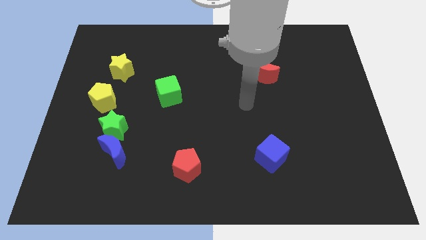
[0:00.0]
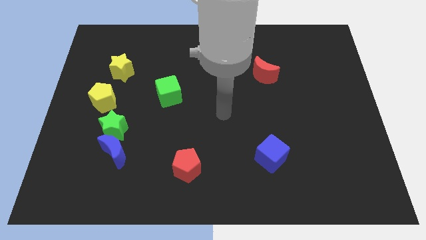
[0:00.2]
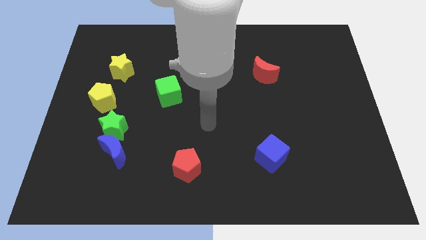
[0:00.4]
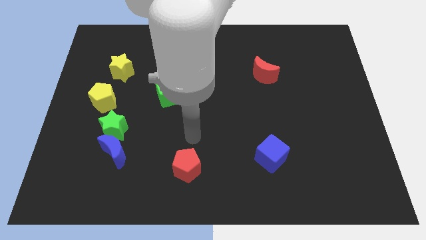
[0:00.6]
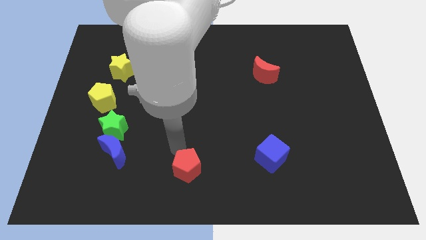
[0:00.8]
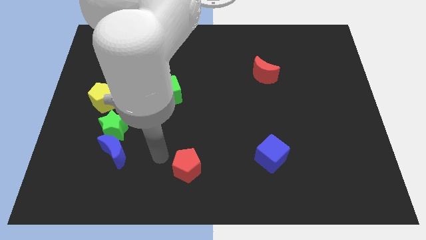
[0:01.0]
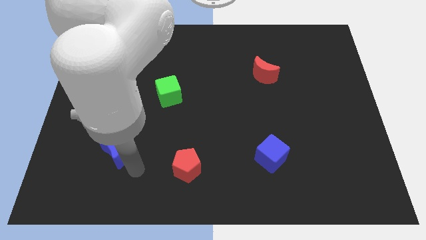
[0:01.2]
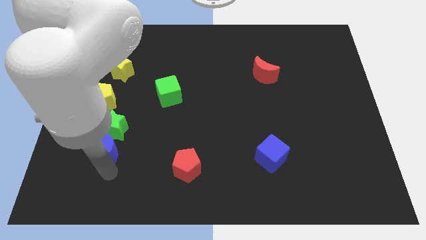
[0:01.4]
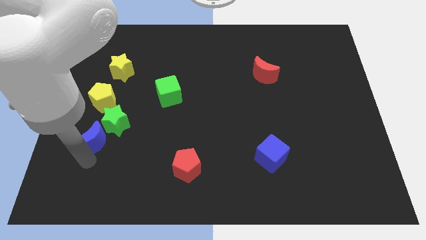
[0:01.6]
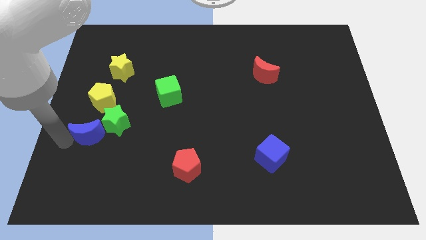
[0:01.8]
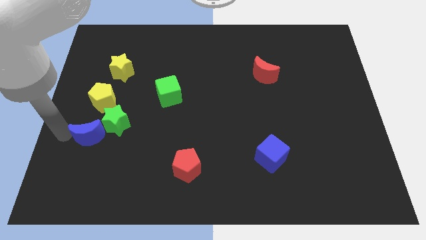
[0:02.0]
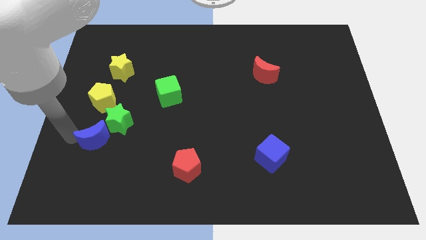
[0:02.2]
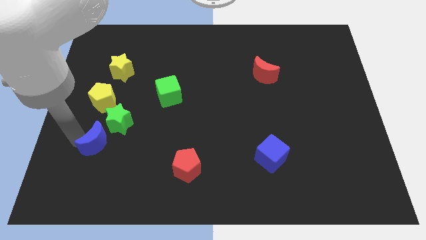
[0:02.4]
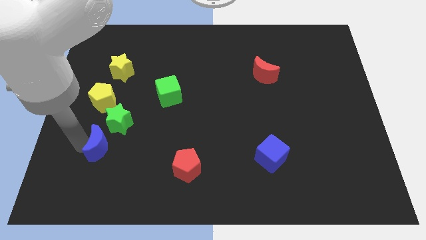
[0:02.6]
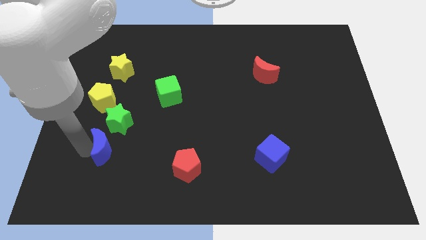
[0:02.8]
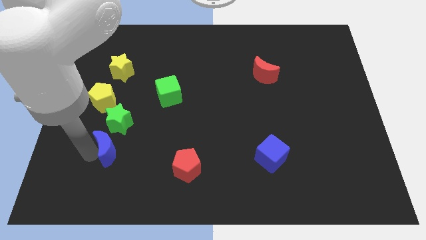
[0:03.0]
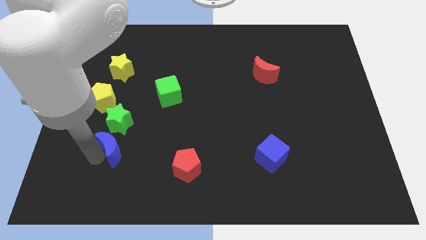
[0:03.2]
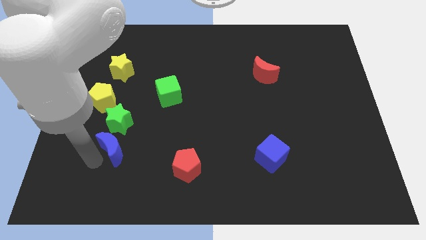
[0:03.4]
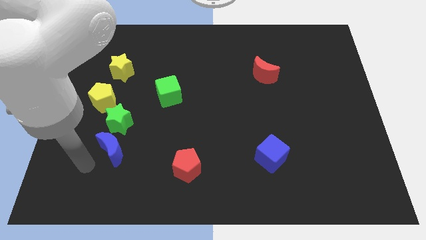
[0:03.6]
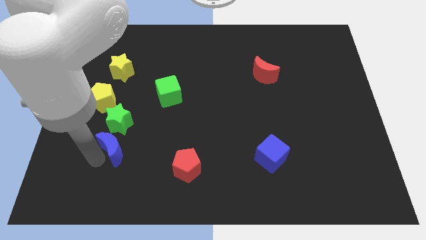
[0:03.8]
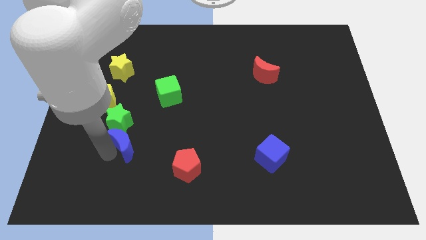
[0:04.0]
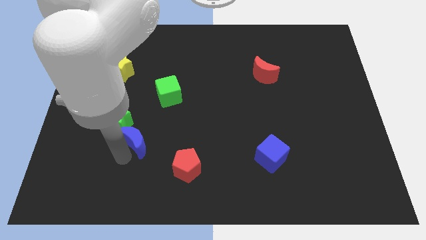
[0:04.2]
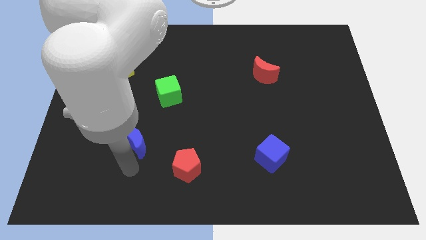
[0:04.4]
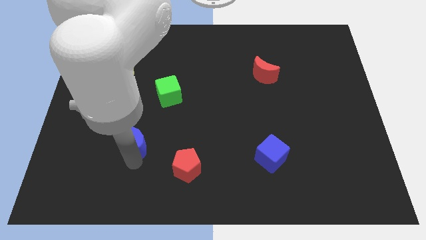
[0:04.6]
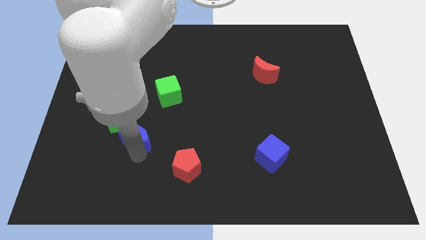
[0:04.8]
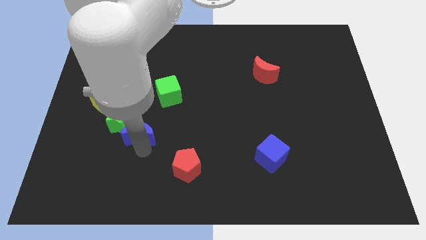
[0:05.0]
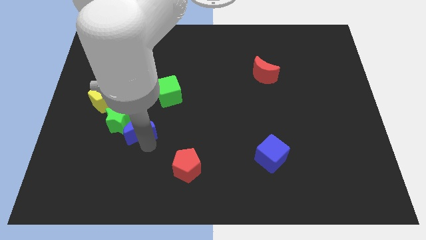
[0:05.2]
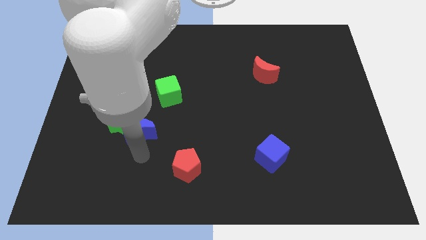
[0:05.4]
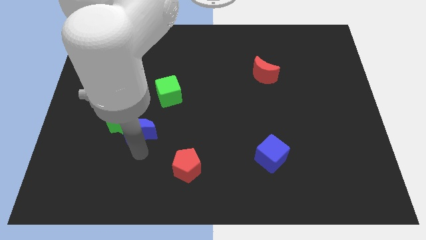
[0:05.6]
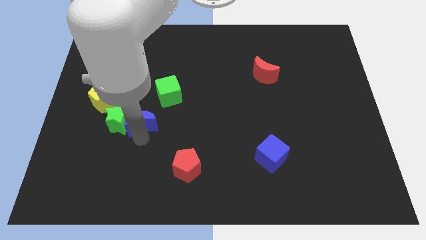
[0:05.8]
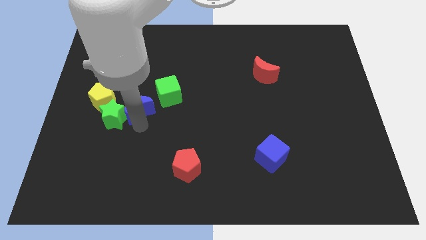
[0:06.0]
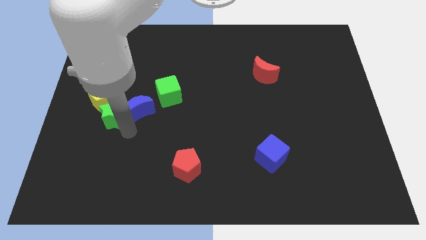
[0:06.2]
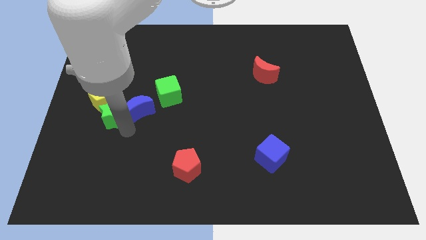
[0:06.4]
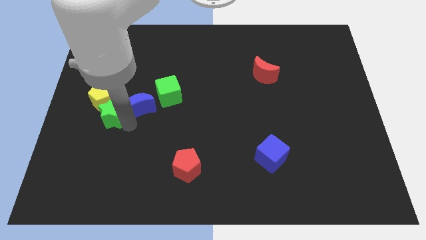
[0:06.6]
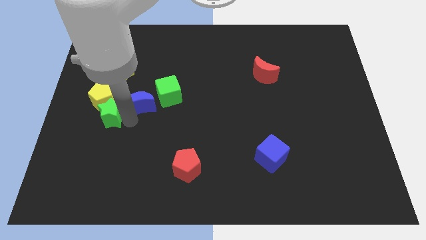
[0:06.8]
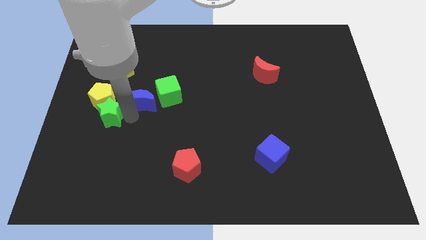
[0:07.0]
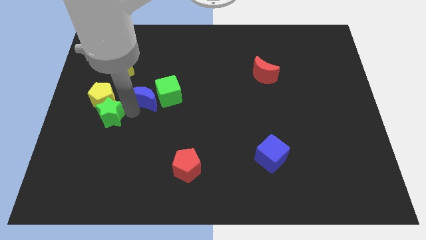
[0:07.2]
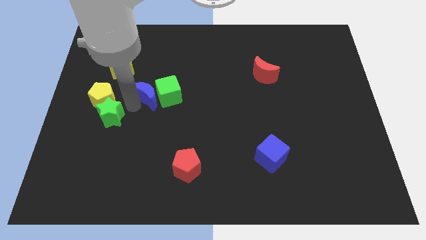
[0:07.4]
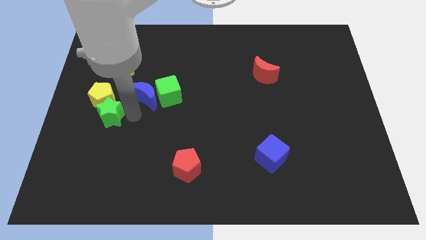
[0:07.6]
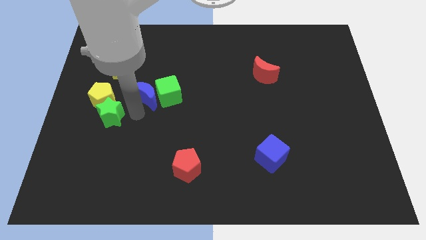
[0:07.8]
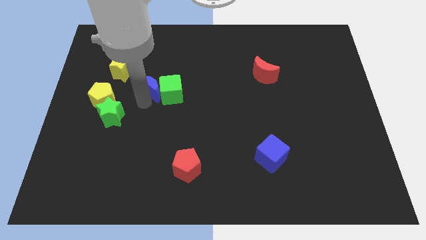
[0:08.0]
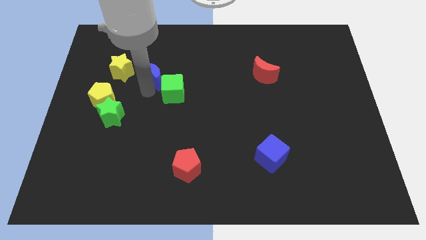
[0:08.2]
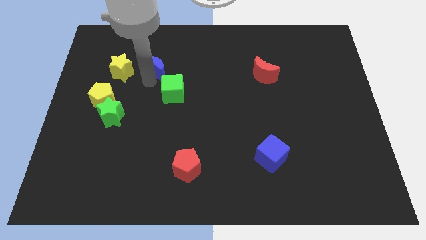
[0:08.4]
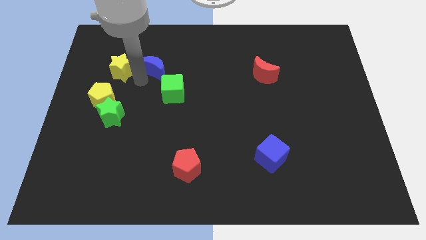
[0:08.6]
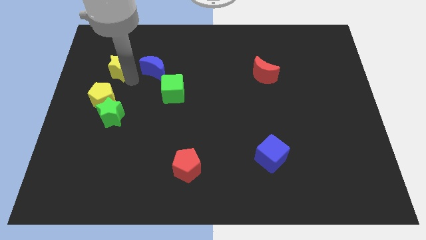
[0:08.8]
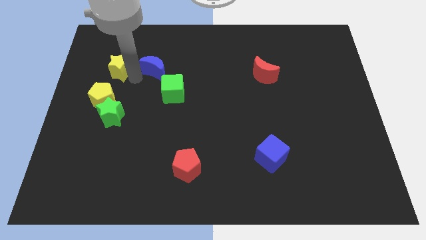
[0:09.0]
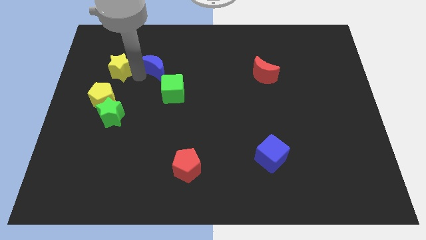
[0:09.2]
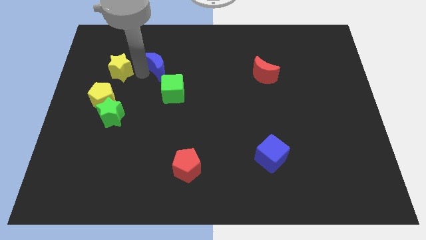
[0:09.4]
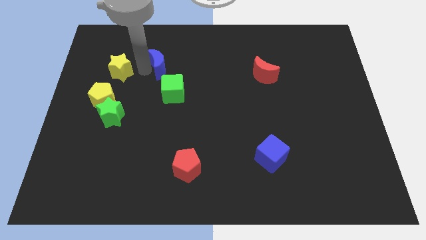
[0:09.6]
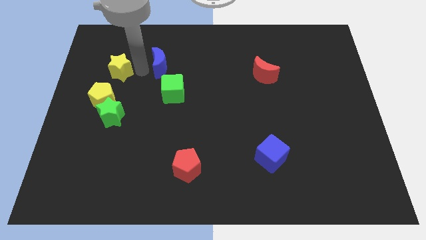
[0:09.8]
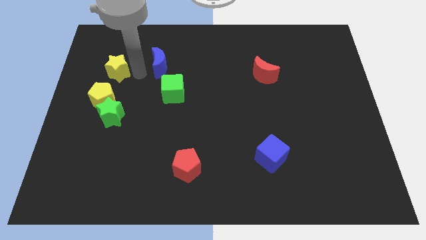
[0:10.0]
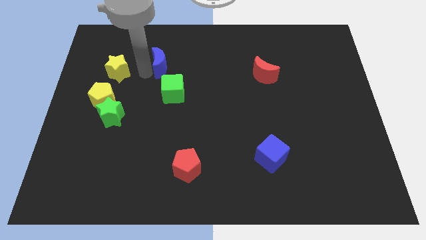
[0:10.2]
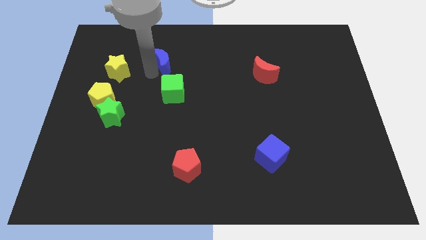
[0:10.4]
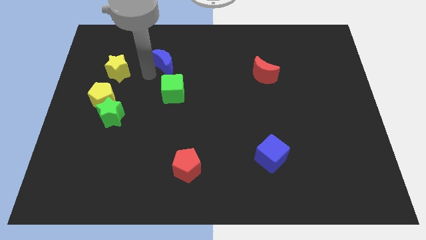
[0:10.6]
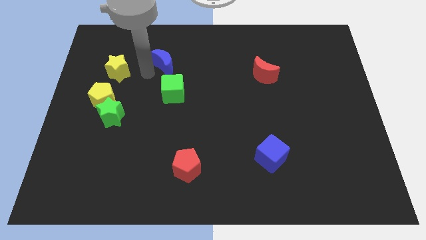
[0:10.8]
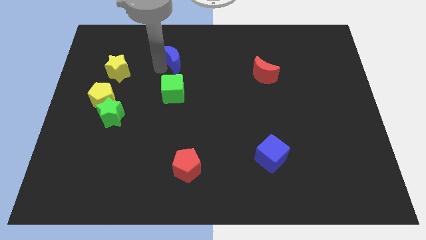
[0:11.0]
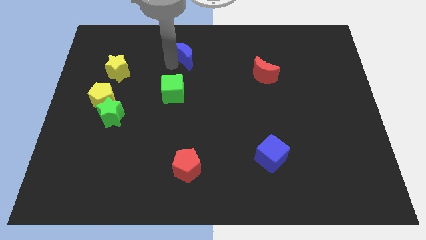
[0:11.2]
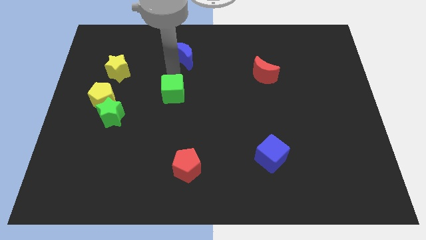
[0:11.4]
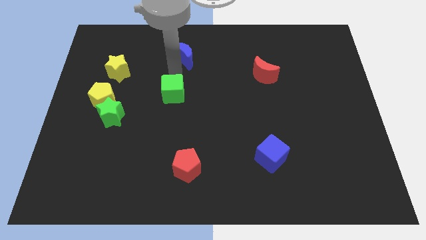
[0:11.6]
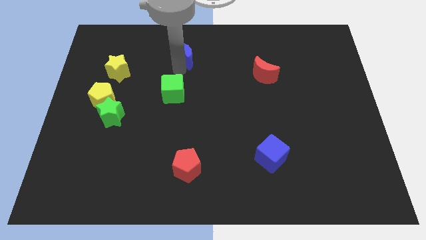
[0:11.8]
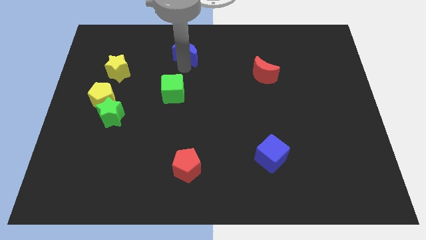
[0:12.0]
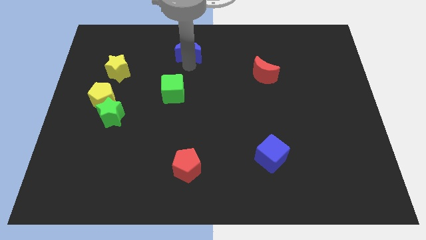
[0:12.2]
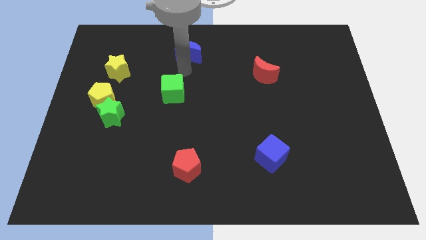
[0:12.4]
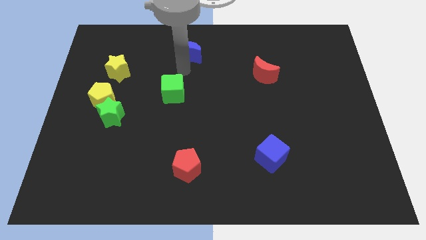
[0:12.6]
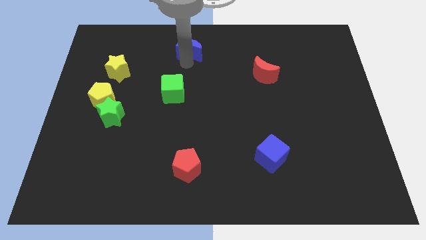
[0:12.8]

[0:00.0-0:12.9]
slide the blue moon to the top side
